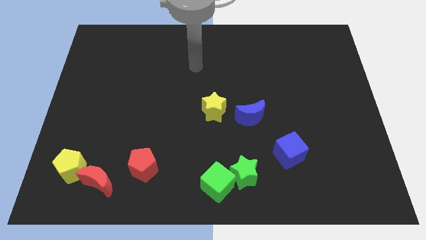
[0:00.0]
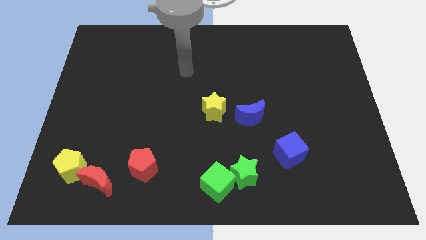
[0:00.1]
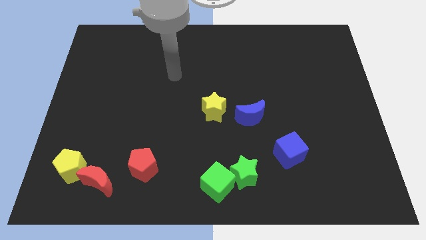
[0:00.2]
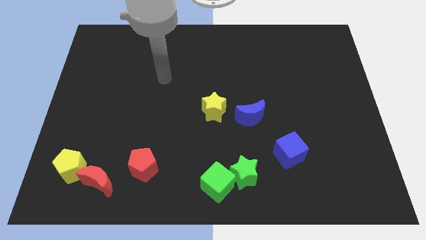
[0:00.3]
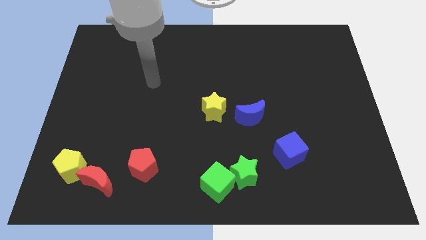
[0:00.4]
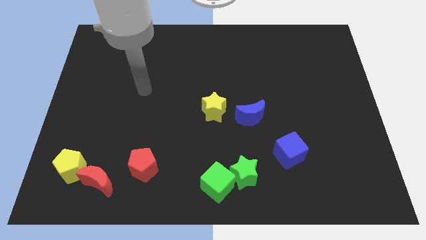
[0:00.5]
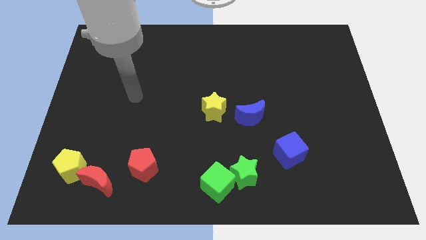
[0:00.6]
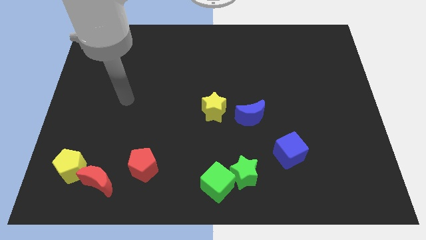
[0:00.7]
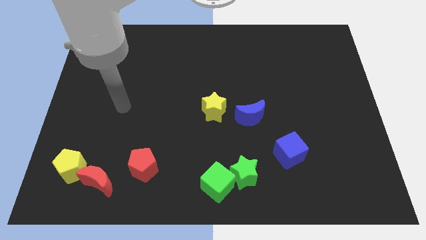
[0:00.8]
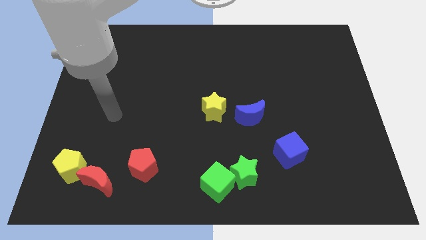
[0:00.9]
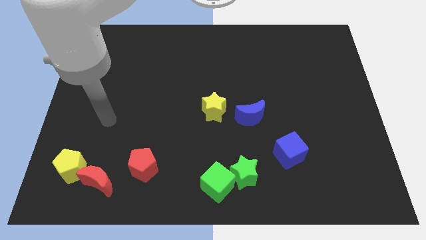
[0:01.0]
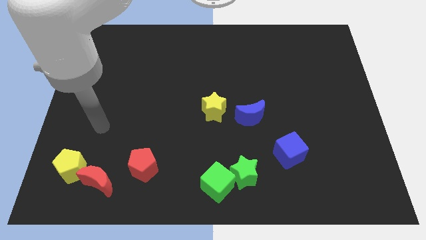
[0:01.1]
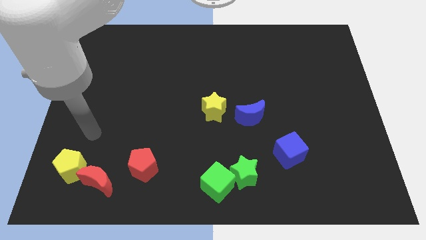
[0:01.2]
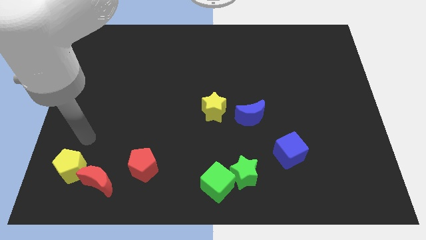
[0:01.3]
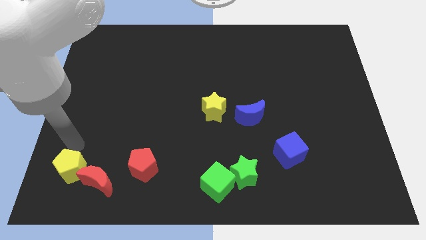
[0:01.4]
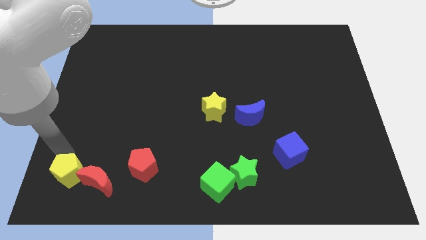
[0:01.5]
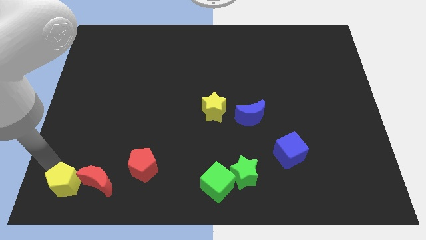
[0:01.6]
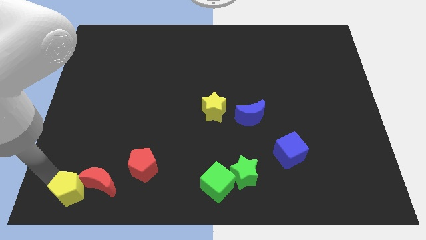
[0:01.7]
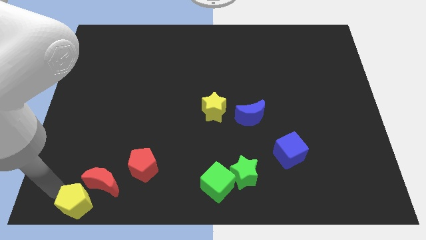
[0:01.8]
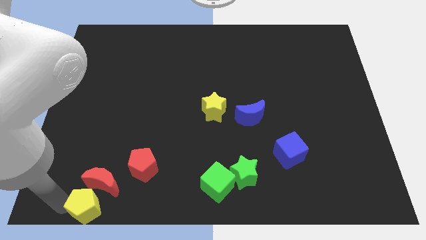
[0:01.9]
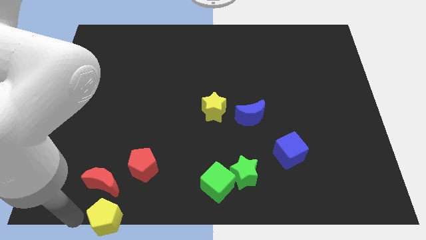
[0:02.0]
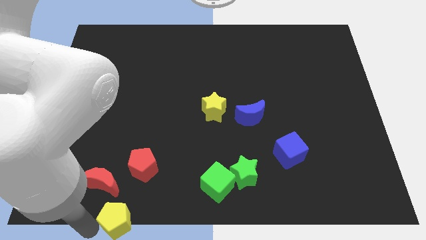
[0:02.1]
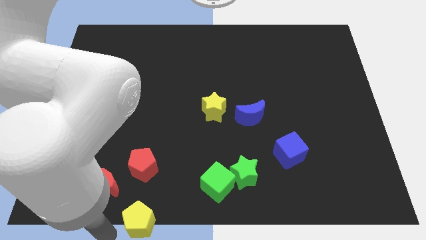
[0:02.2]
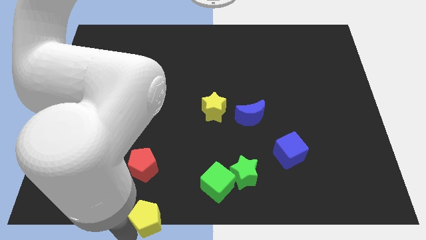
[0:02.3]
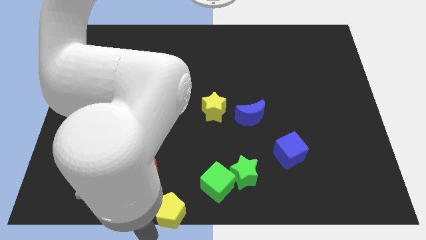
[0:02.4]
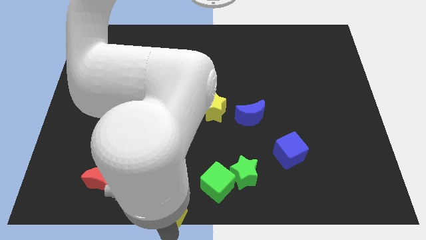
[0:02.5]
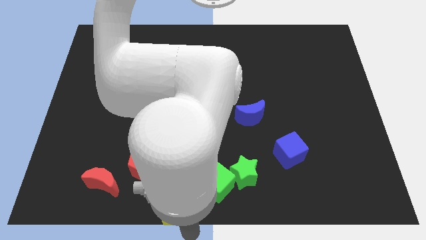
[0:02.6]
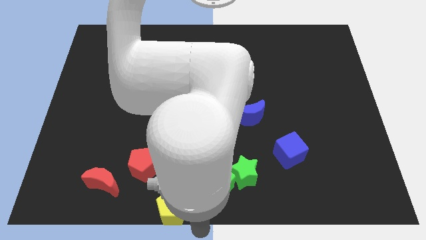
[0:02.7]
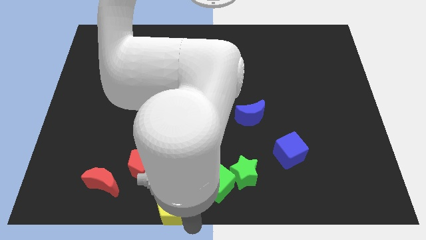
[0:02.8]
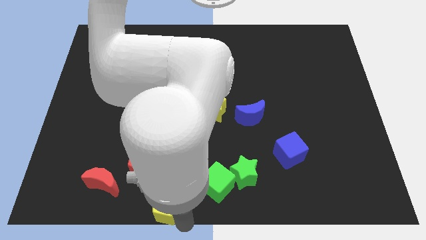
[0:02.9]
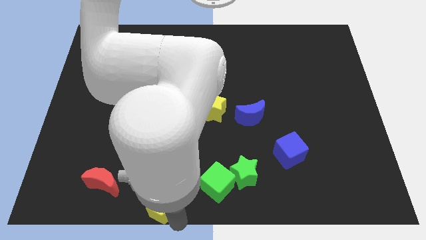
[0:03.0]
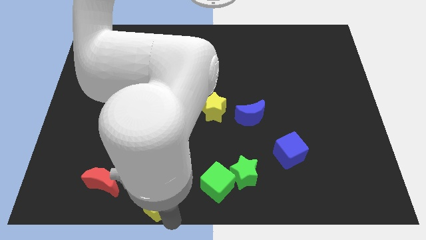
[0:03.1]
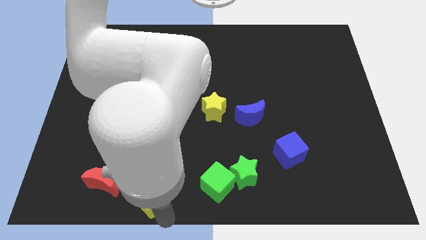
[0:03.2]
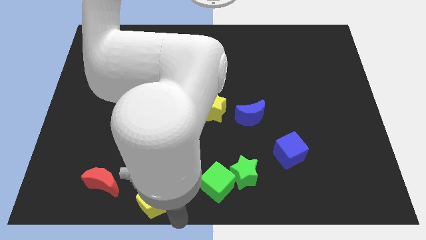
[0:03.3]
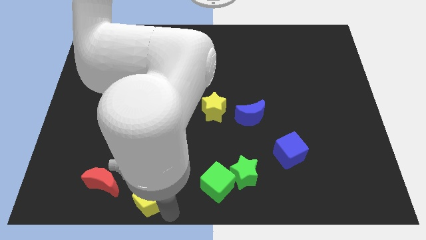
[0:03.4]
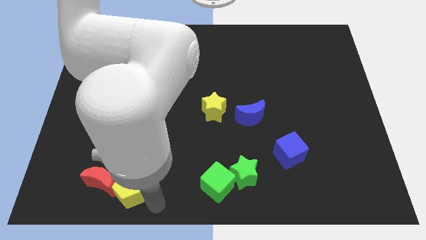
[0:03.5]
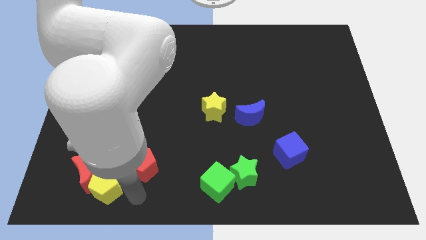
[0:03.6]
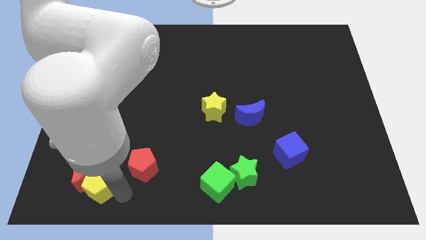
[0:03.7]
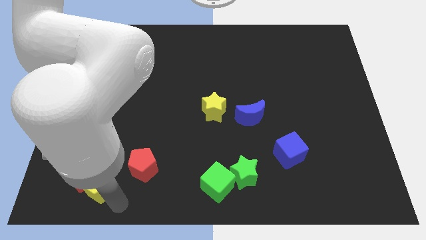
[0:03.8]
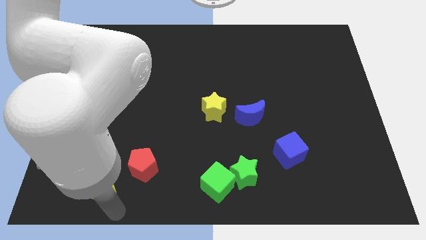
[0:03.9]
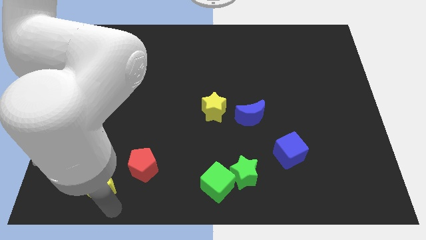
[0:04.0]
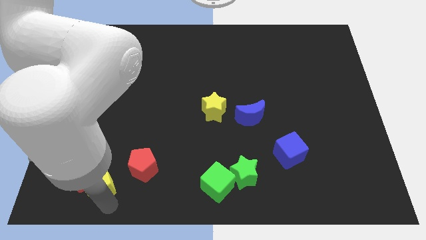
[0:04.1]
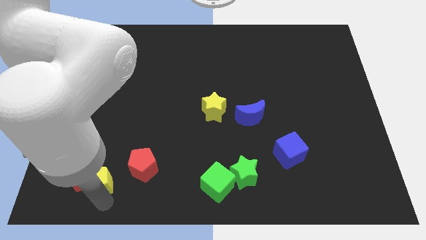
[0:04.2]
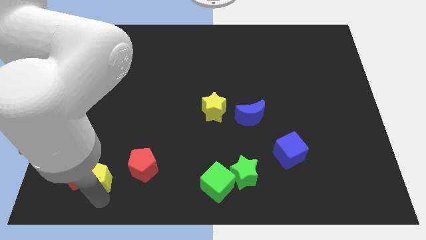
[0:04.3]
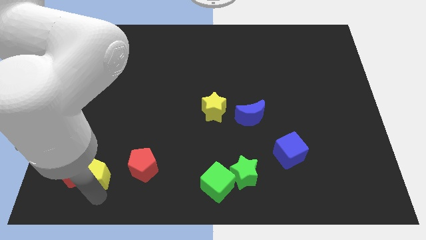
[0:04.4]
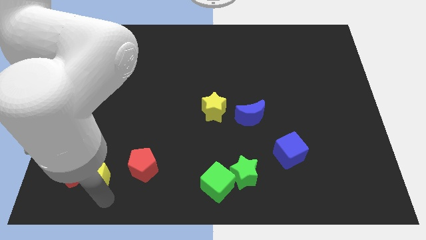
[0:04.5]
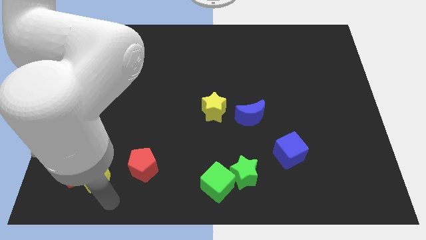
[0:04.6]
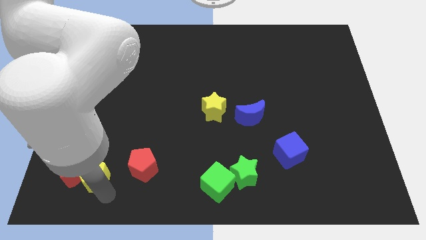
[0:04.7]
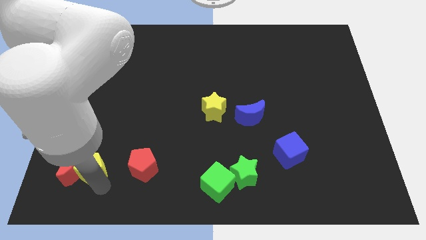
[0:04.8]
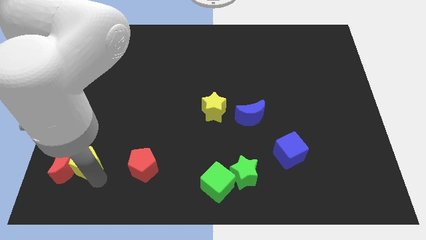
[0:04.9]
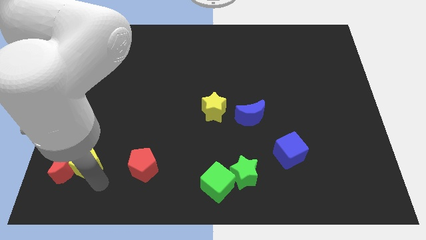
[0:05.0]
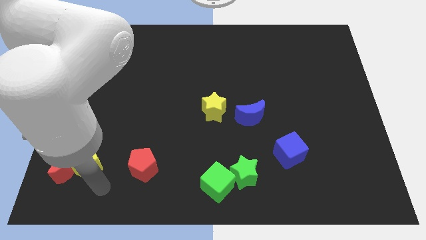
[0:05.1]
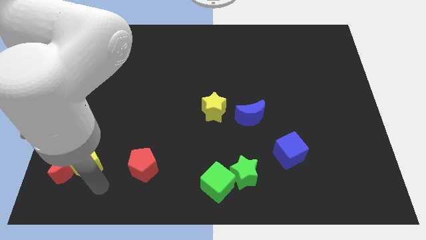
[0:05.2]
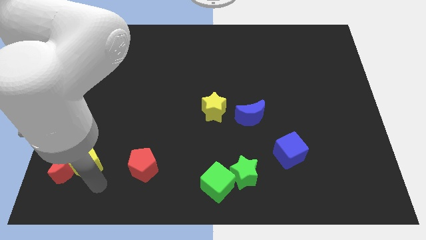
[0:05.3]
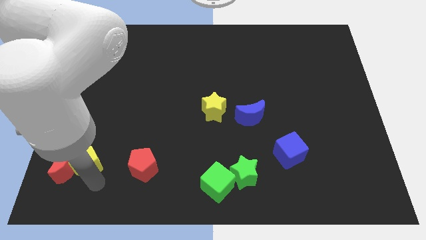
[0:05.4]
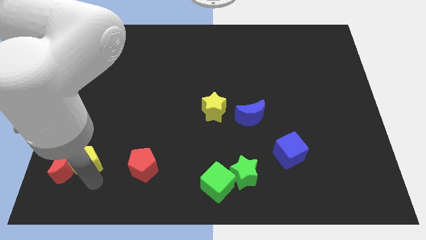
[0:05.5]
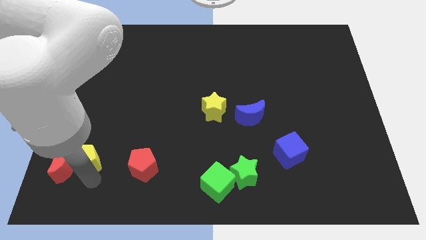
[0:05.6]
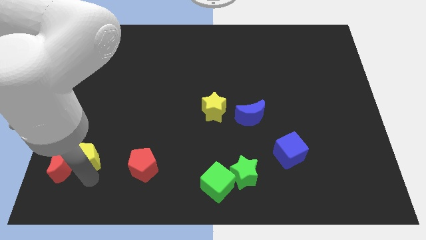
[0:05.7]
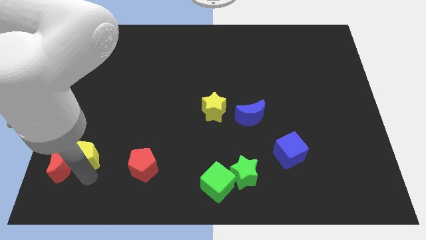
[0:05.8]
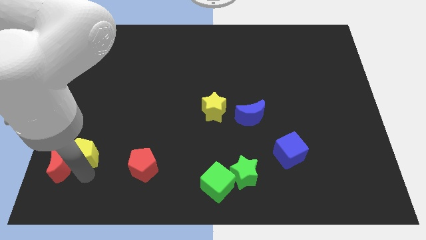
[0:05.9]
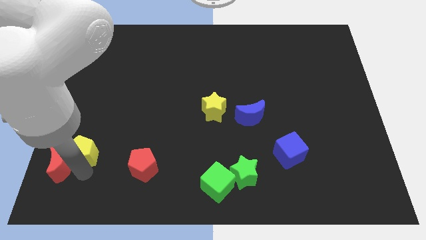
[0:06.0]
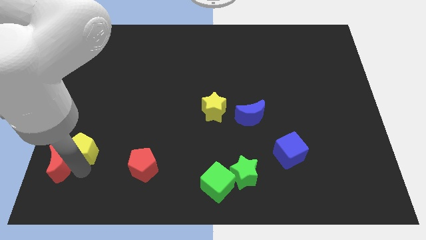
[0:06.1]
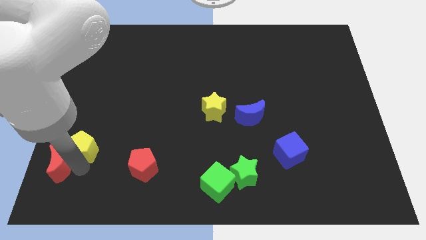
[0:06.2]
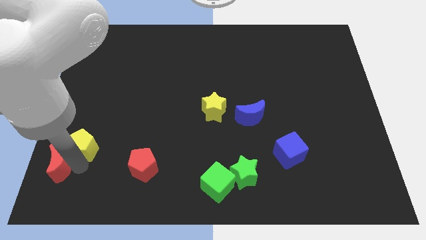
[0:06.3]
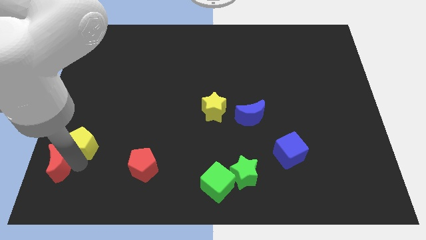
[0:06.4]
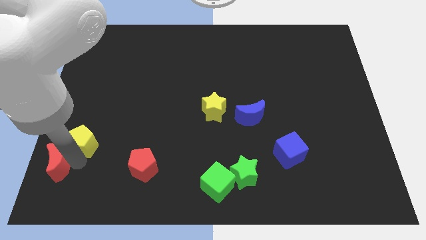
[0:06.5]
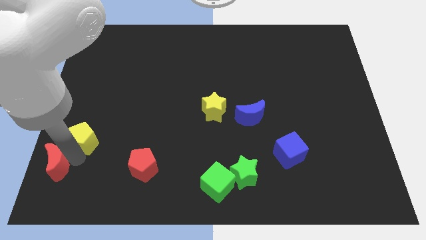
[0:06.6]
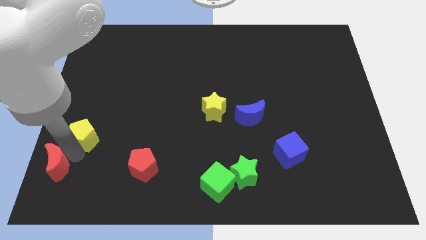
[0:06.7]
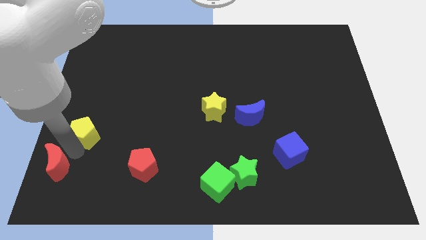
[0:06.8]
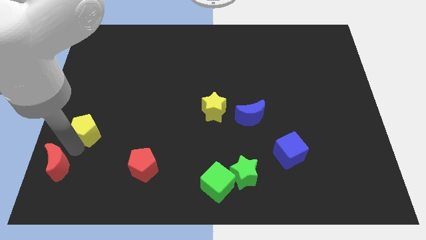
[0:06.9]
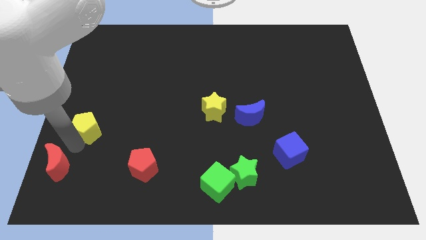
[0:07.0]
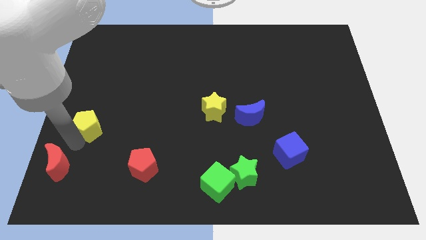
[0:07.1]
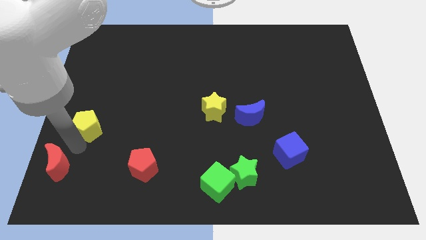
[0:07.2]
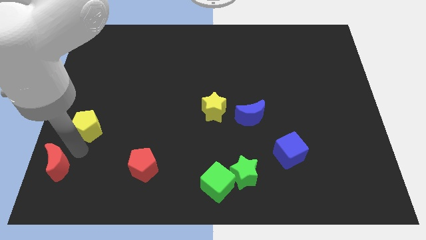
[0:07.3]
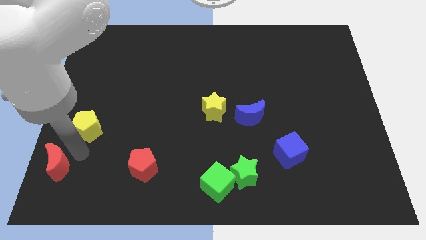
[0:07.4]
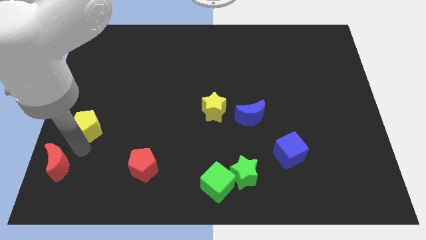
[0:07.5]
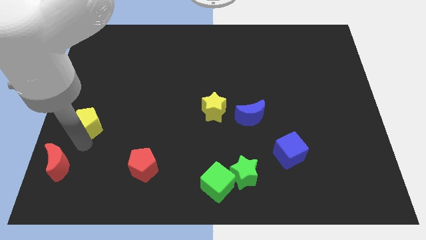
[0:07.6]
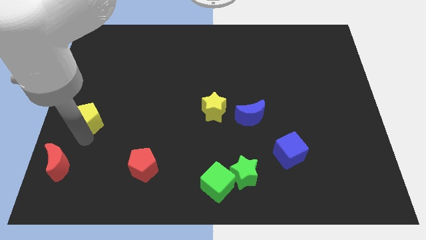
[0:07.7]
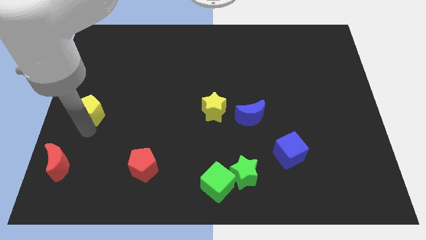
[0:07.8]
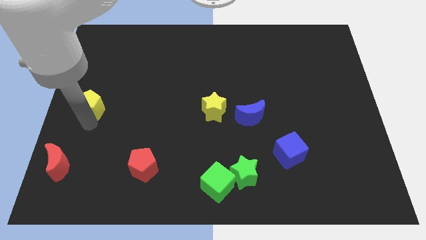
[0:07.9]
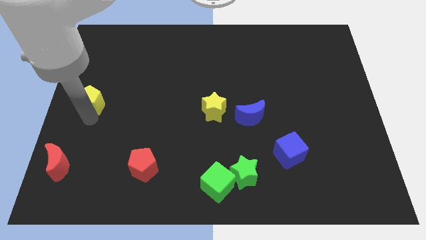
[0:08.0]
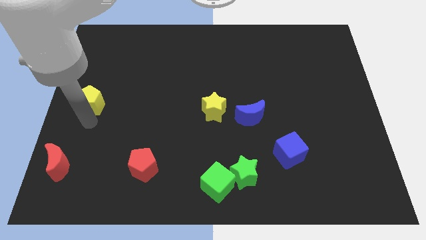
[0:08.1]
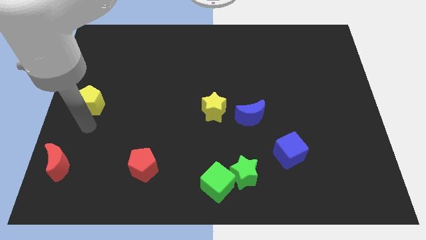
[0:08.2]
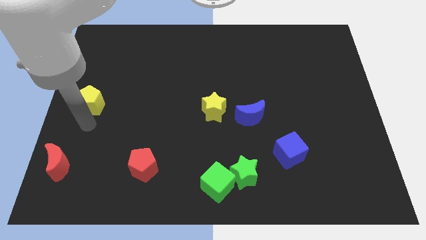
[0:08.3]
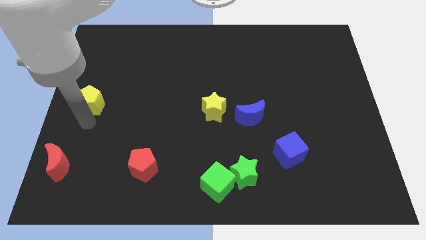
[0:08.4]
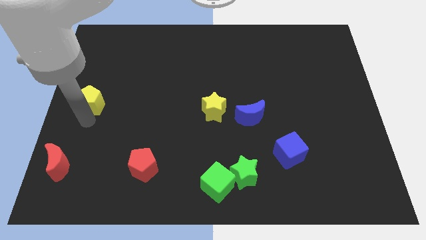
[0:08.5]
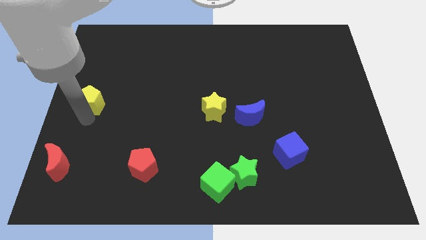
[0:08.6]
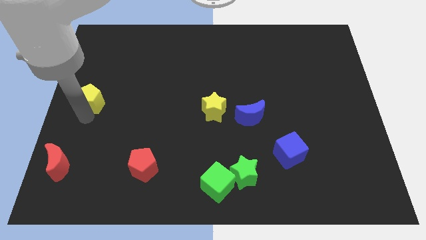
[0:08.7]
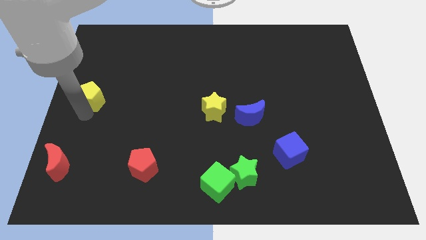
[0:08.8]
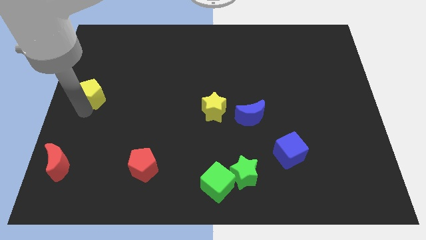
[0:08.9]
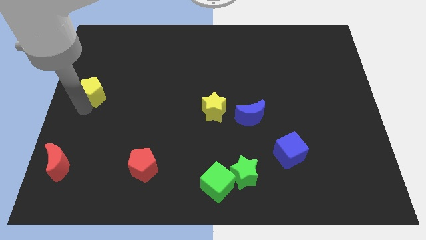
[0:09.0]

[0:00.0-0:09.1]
move the yellow pentagon upwards
